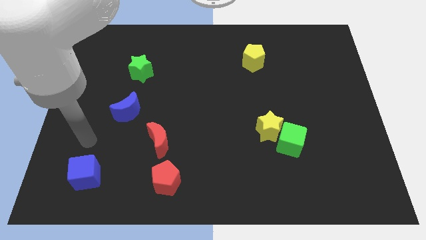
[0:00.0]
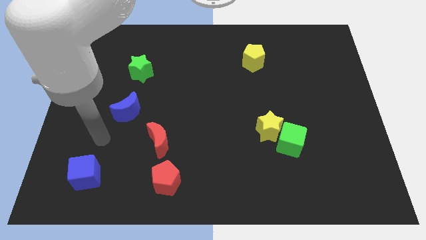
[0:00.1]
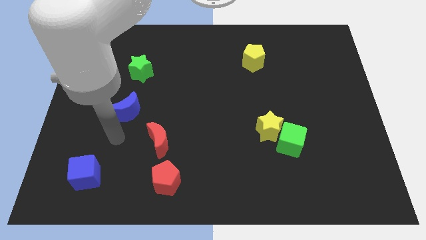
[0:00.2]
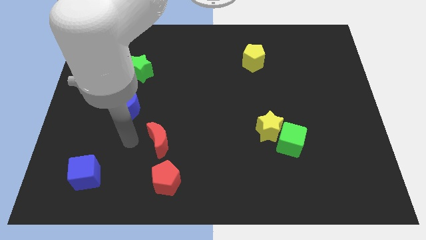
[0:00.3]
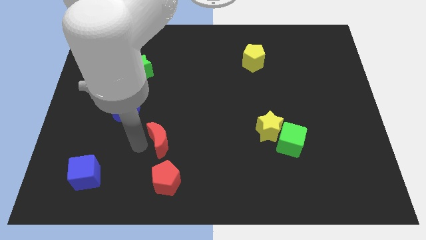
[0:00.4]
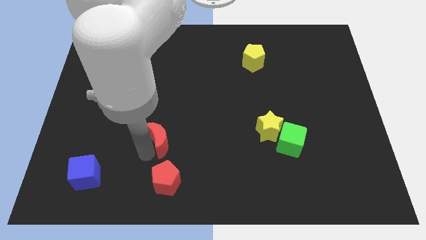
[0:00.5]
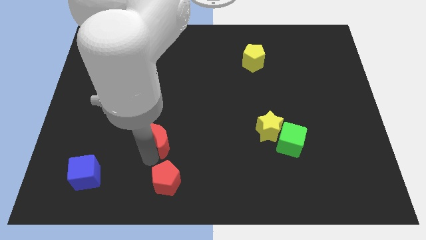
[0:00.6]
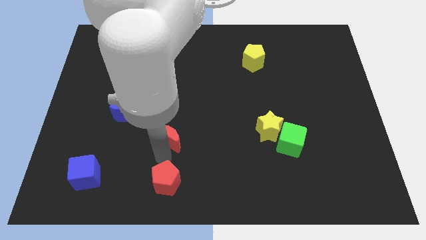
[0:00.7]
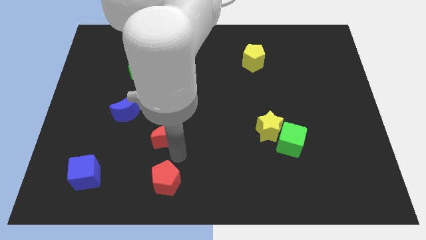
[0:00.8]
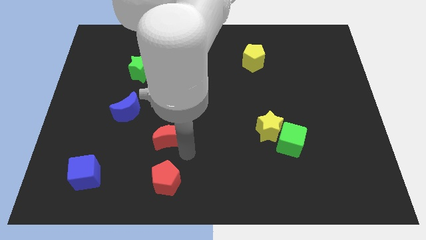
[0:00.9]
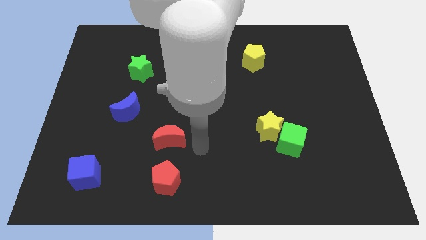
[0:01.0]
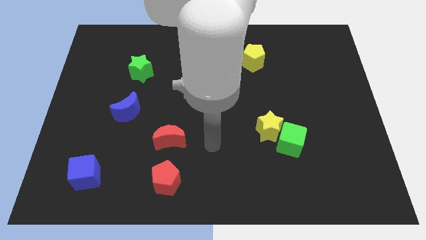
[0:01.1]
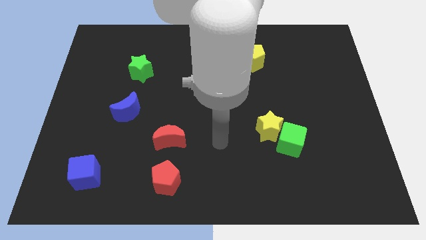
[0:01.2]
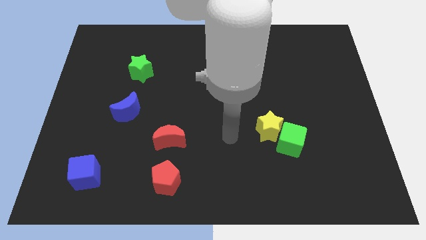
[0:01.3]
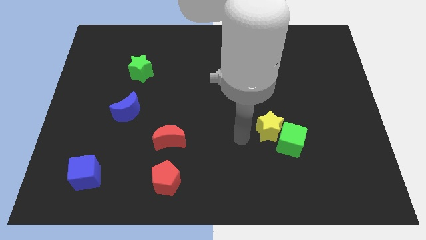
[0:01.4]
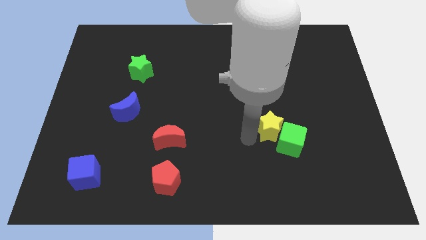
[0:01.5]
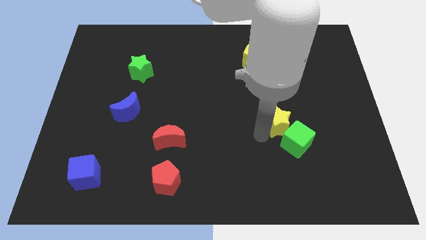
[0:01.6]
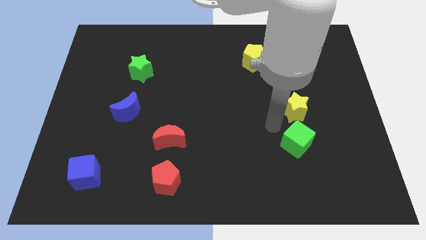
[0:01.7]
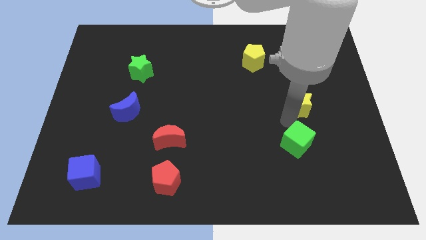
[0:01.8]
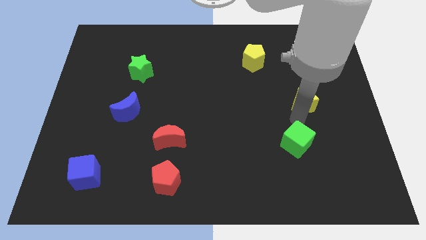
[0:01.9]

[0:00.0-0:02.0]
separate the green cube from the yellow star

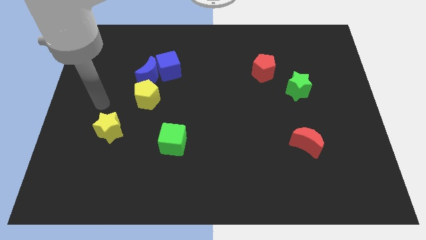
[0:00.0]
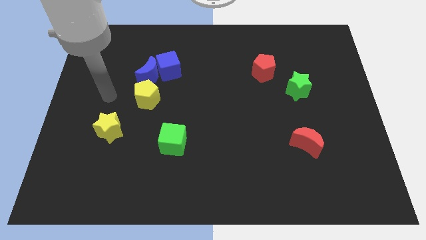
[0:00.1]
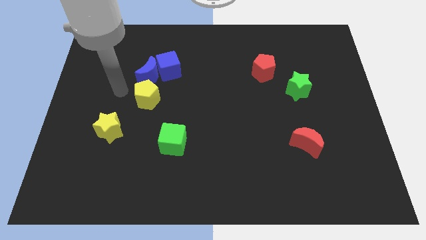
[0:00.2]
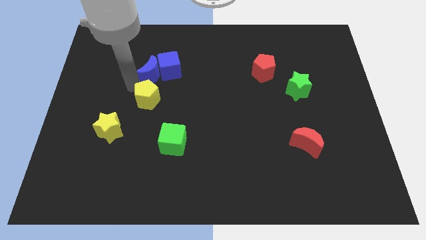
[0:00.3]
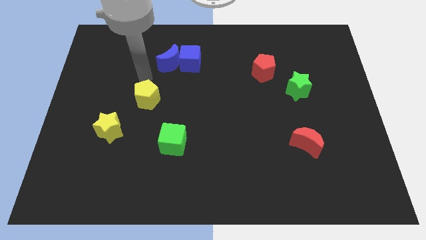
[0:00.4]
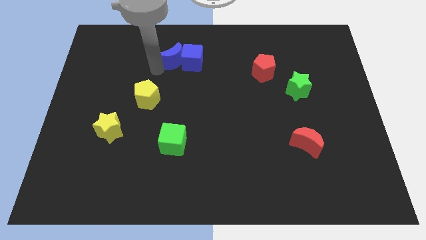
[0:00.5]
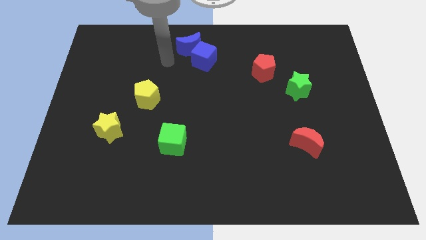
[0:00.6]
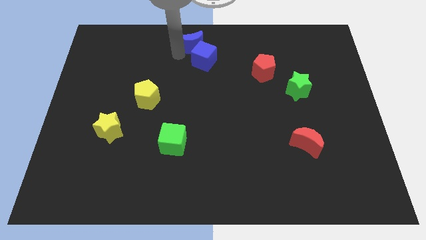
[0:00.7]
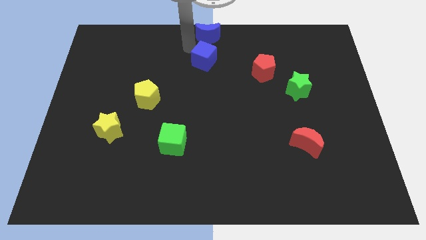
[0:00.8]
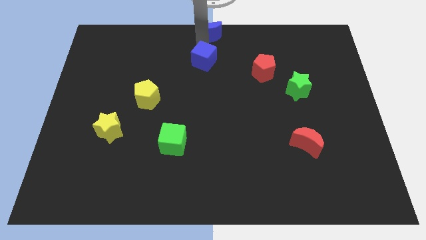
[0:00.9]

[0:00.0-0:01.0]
move the blue cube away from the blue moon

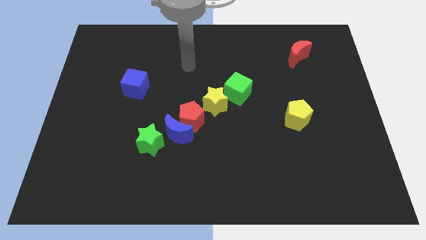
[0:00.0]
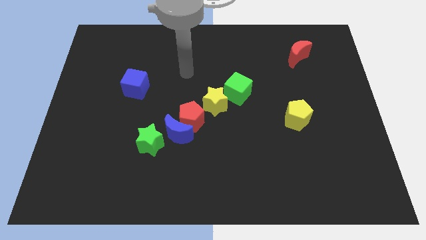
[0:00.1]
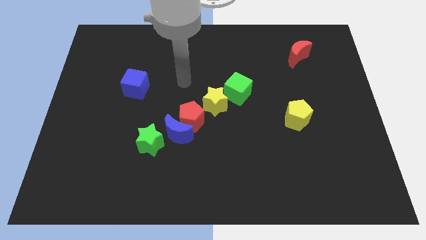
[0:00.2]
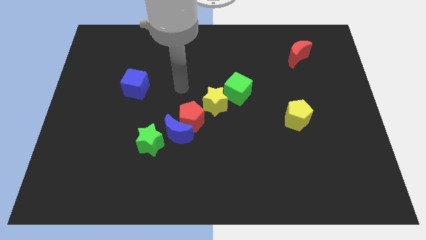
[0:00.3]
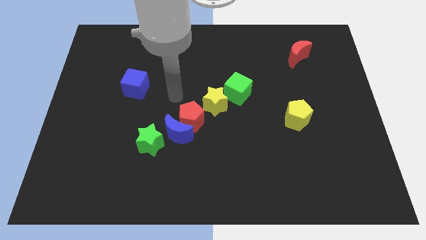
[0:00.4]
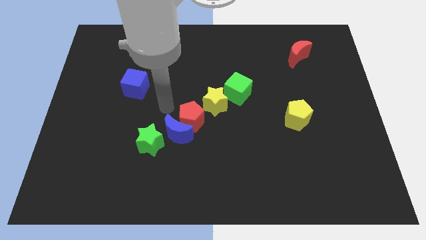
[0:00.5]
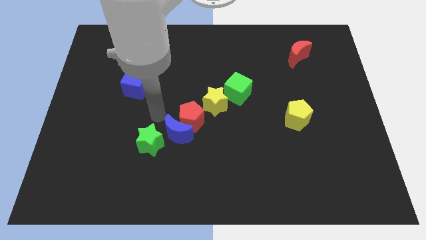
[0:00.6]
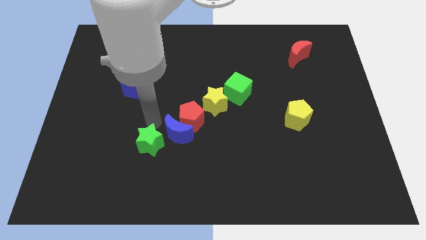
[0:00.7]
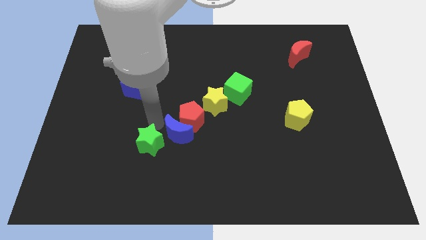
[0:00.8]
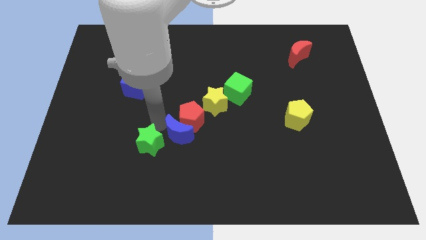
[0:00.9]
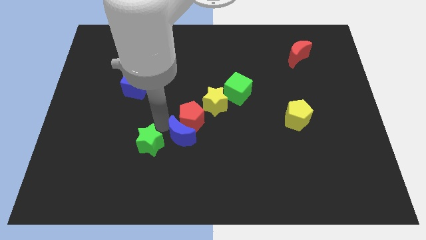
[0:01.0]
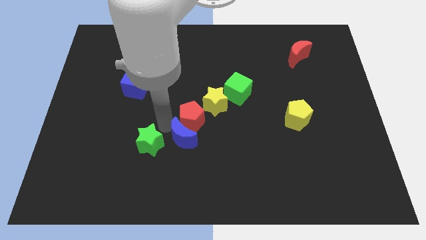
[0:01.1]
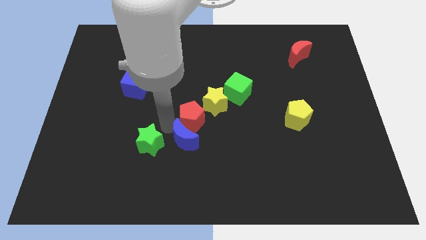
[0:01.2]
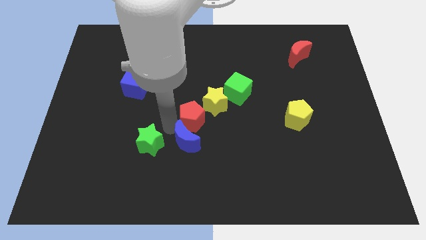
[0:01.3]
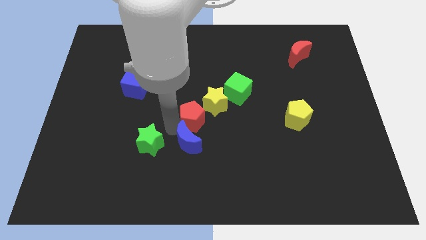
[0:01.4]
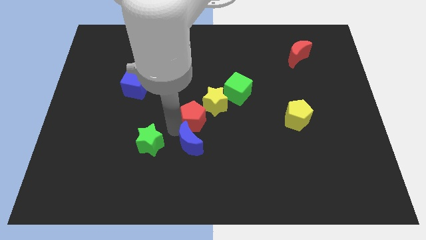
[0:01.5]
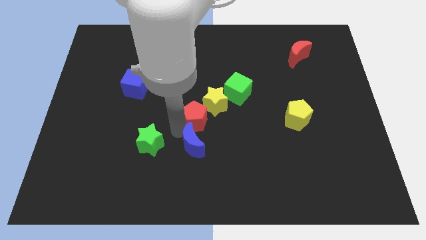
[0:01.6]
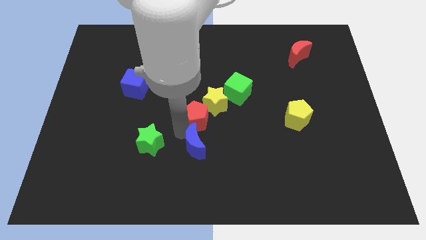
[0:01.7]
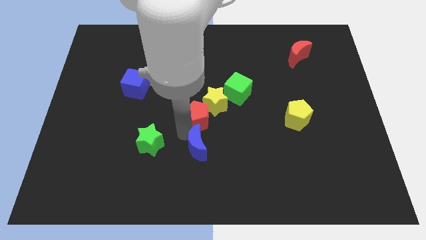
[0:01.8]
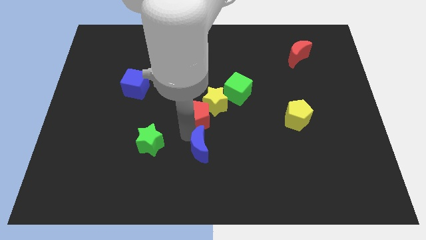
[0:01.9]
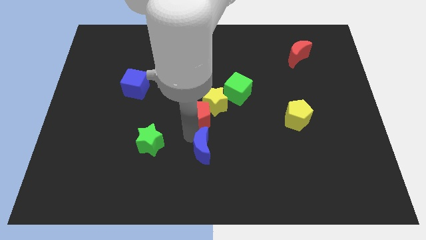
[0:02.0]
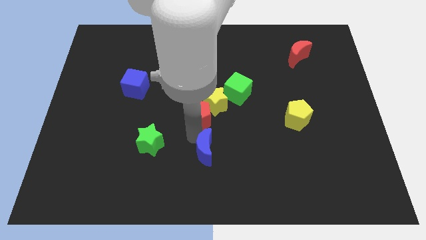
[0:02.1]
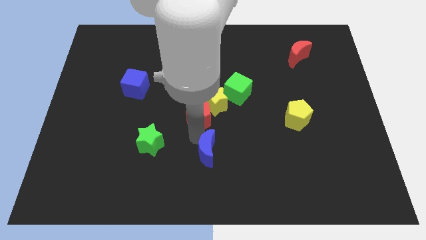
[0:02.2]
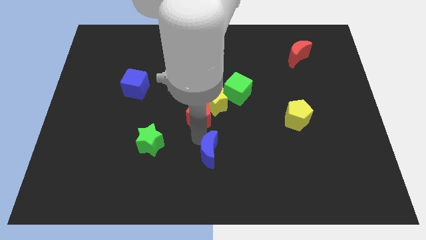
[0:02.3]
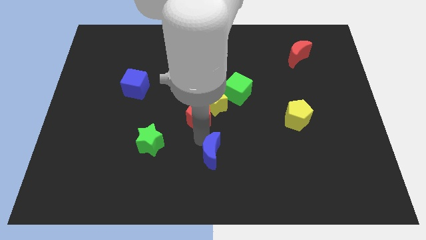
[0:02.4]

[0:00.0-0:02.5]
separate the blue moon from the red pentagon and green star

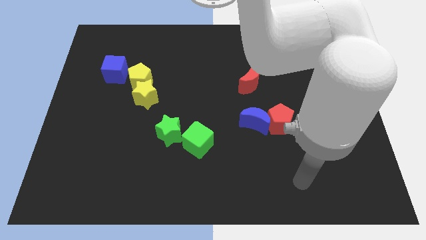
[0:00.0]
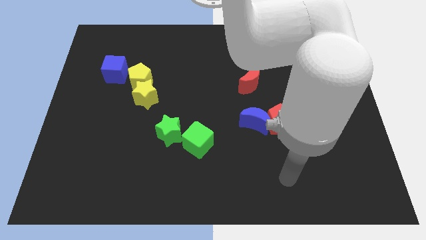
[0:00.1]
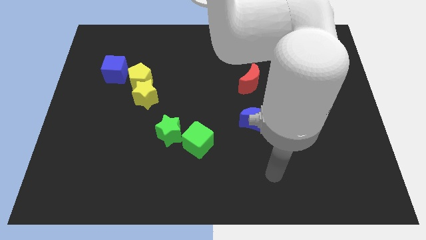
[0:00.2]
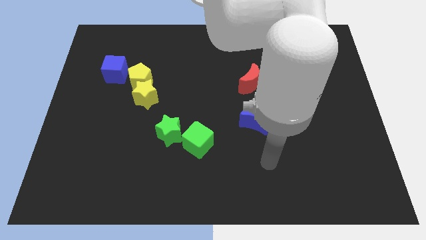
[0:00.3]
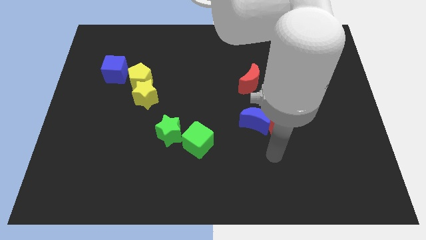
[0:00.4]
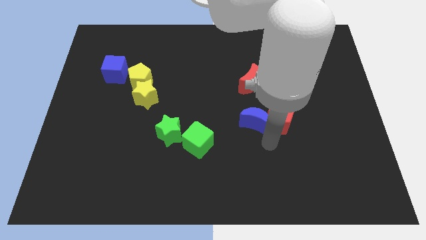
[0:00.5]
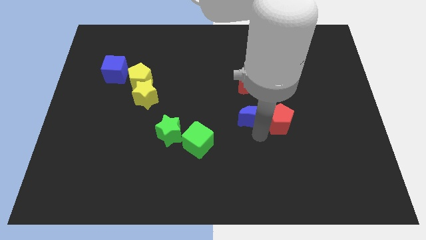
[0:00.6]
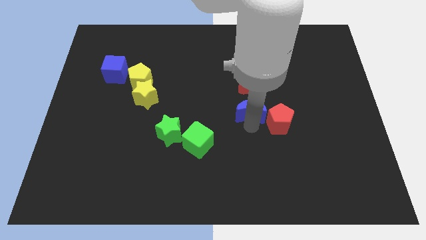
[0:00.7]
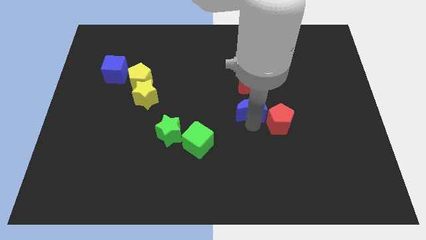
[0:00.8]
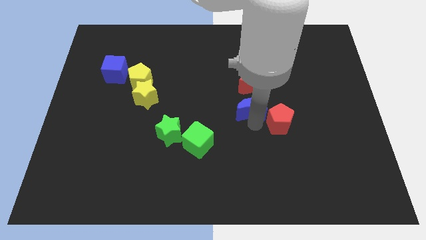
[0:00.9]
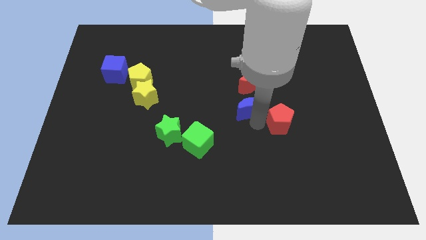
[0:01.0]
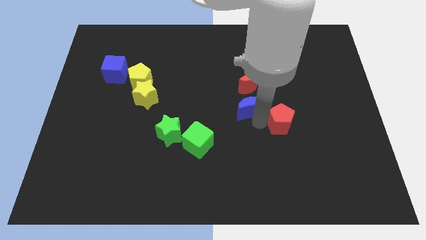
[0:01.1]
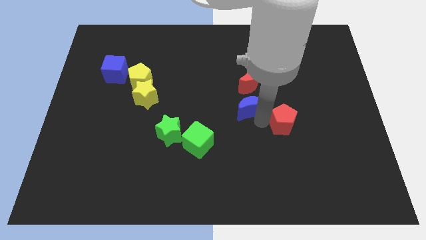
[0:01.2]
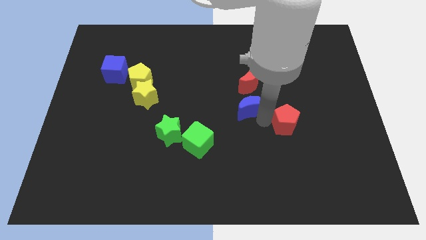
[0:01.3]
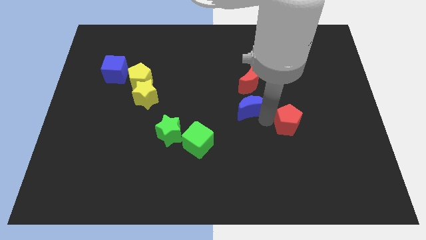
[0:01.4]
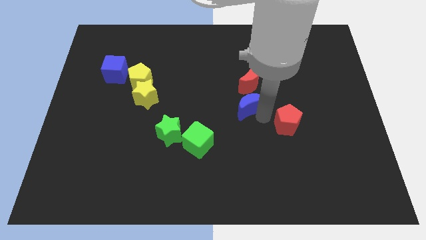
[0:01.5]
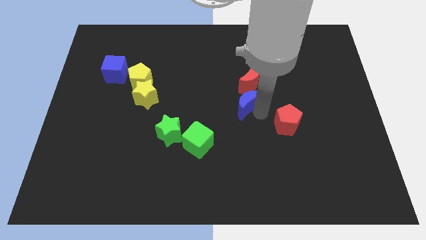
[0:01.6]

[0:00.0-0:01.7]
pull the red pentagon apart from the blue moon

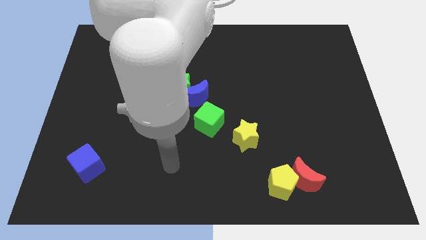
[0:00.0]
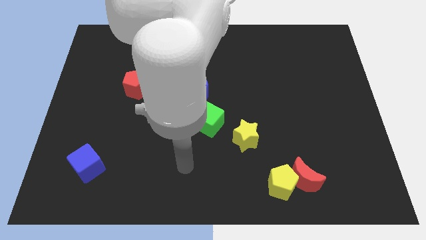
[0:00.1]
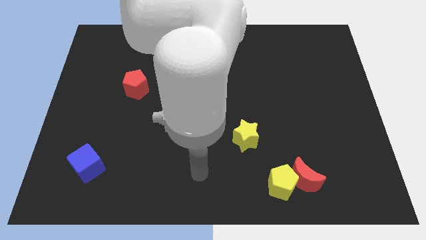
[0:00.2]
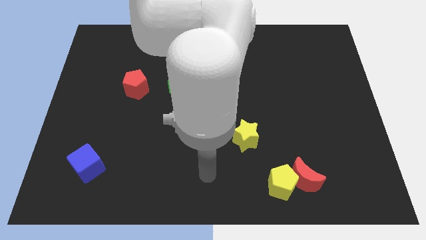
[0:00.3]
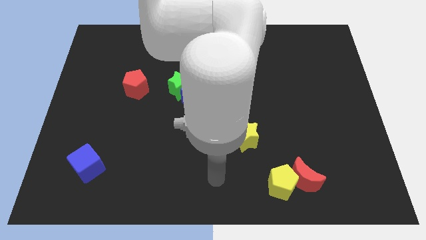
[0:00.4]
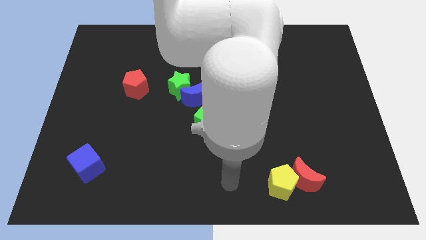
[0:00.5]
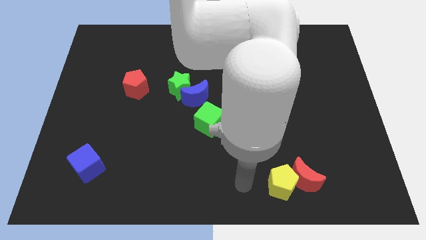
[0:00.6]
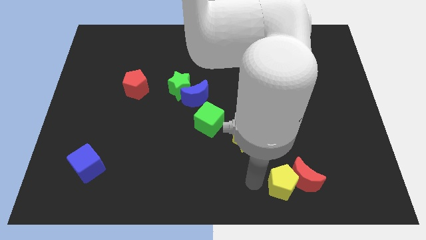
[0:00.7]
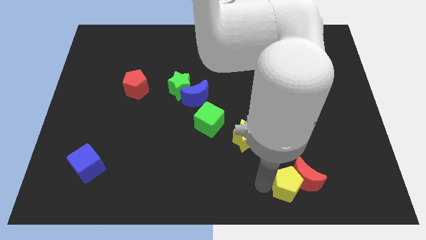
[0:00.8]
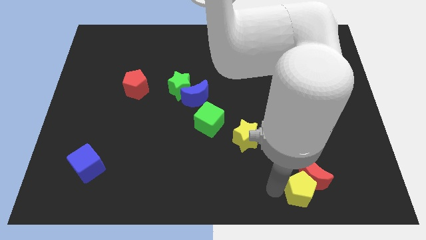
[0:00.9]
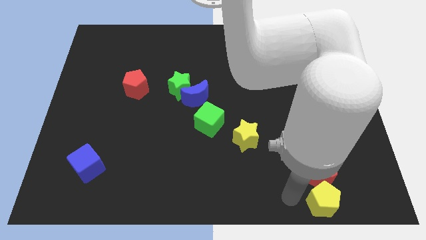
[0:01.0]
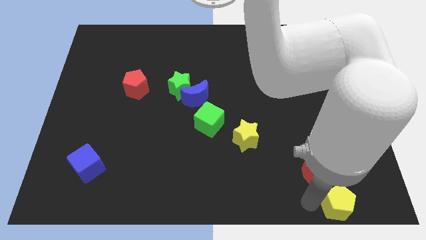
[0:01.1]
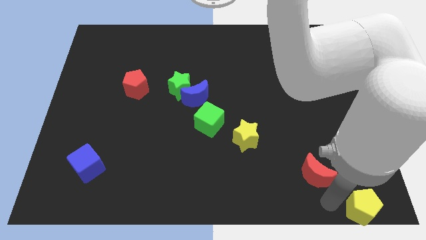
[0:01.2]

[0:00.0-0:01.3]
separate the red moon from the yellow pentagon

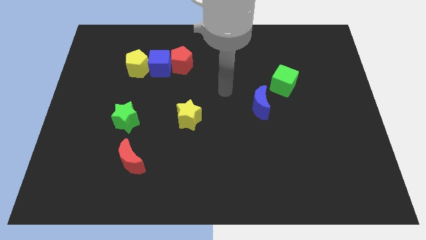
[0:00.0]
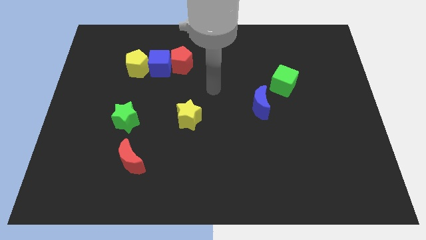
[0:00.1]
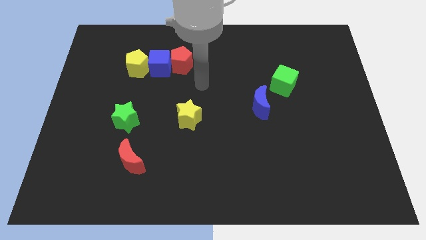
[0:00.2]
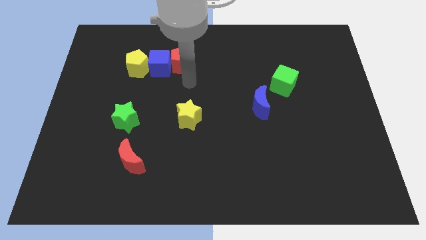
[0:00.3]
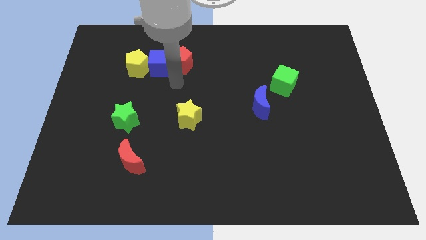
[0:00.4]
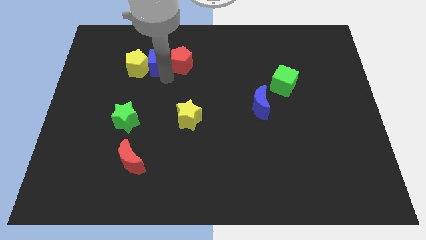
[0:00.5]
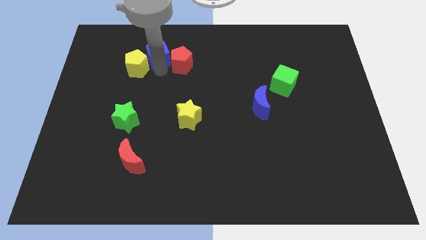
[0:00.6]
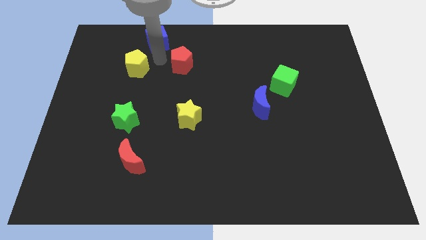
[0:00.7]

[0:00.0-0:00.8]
separate the red pentagon from the blue cube
